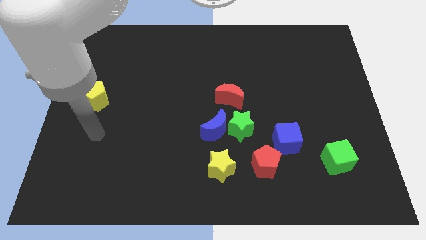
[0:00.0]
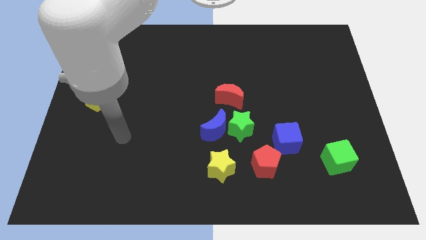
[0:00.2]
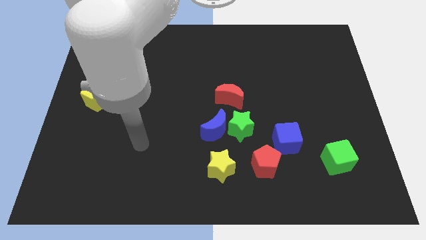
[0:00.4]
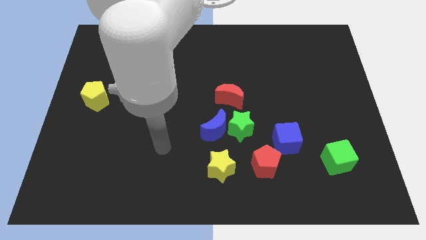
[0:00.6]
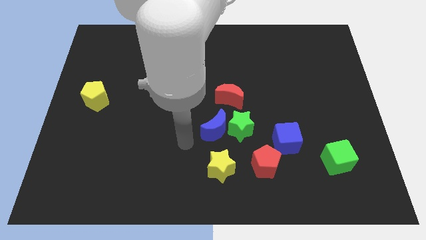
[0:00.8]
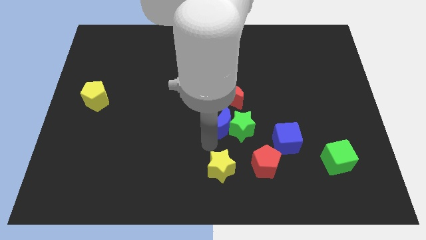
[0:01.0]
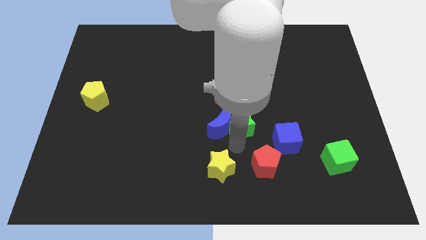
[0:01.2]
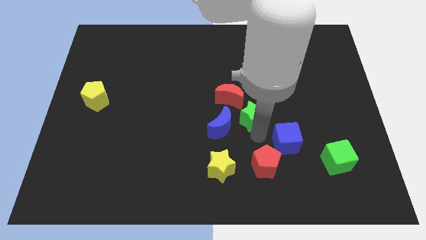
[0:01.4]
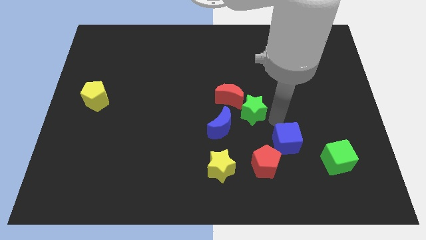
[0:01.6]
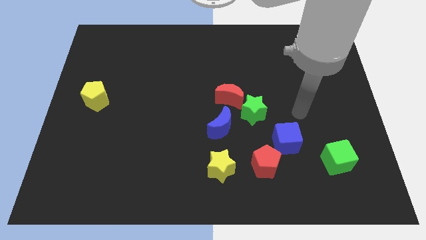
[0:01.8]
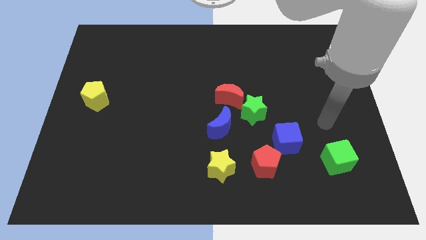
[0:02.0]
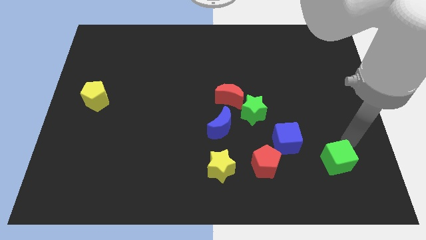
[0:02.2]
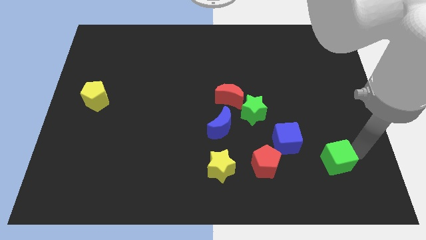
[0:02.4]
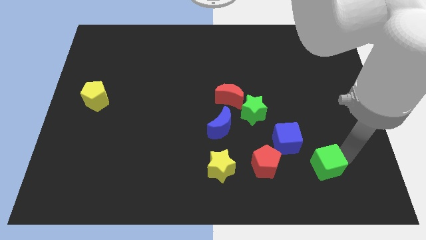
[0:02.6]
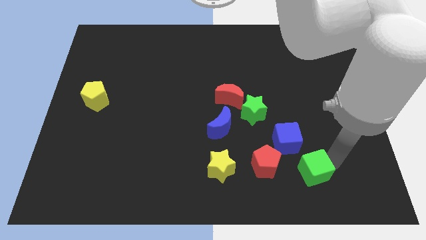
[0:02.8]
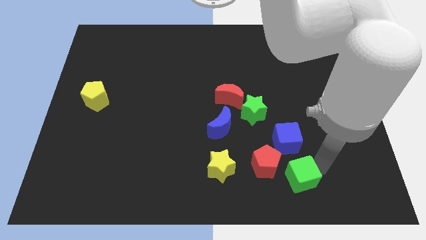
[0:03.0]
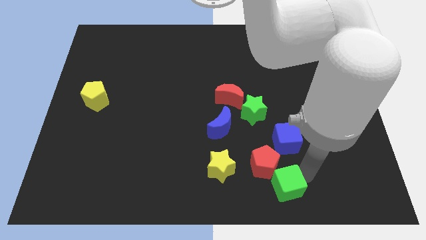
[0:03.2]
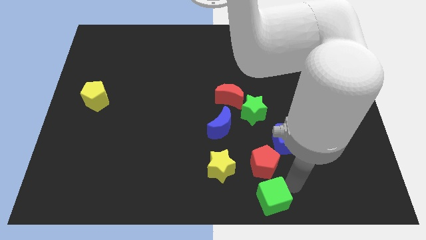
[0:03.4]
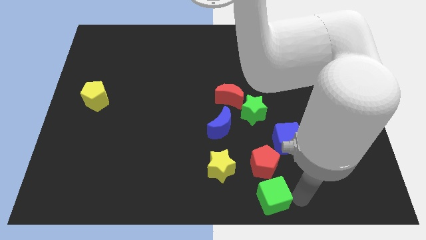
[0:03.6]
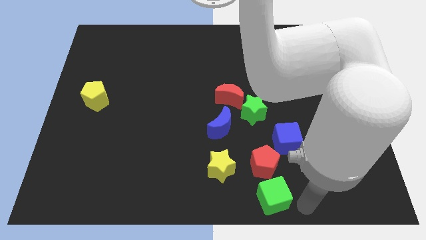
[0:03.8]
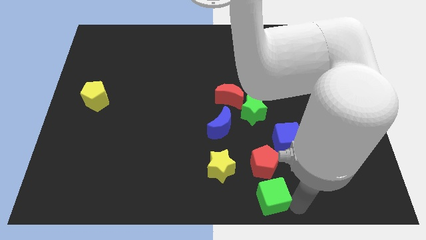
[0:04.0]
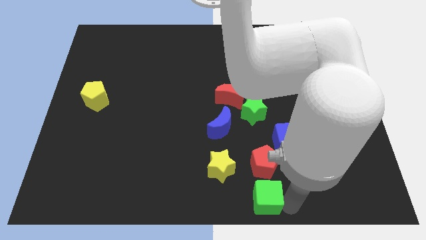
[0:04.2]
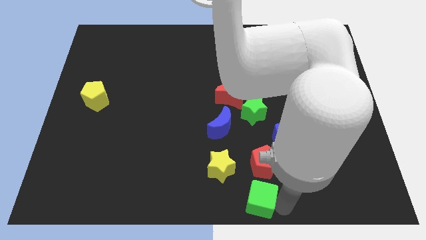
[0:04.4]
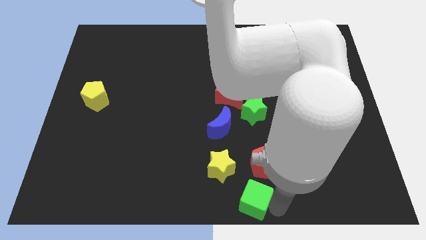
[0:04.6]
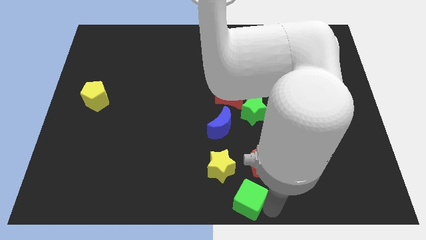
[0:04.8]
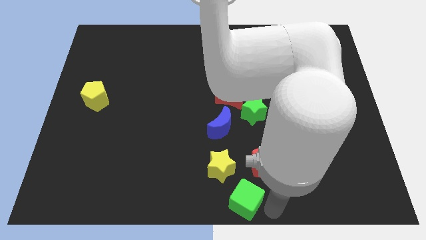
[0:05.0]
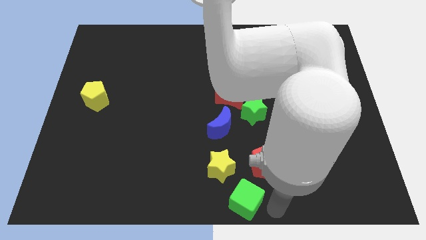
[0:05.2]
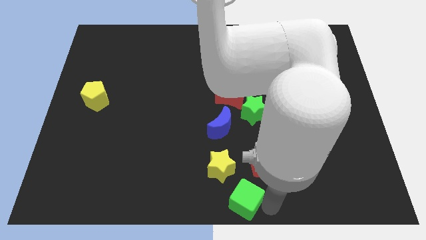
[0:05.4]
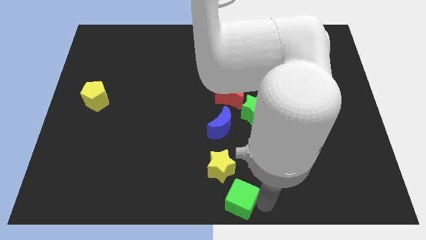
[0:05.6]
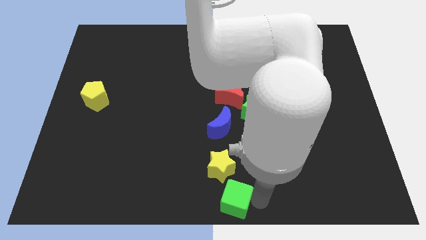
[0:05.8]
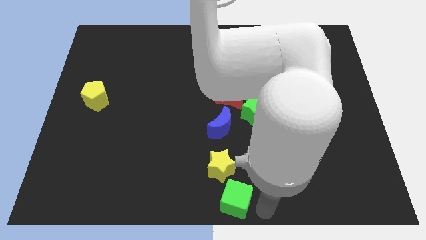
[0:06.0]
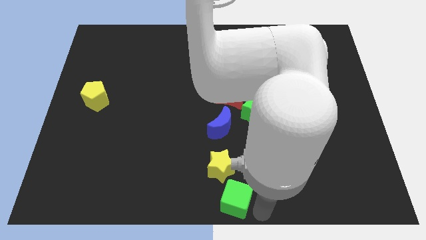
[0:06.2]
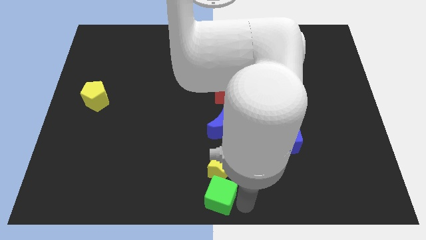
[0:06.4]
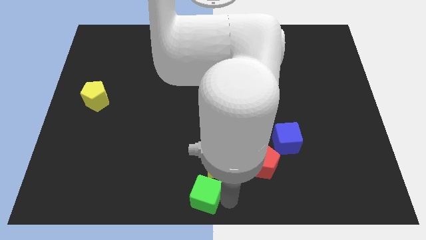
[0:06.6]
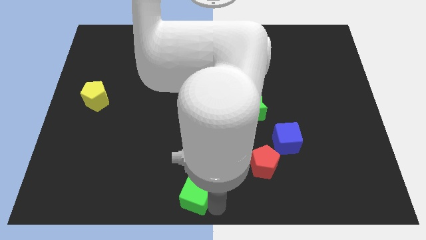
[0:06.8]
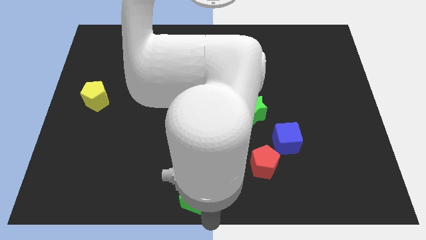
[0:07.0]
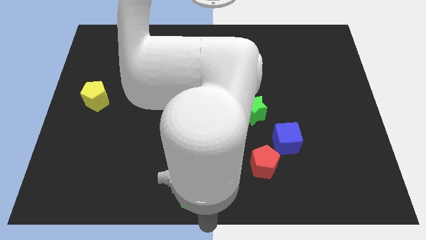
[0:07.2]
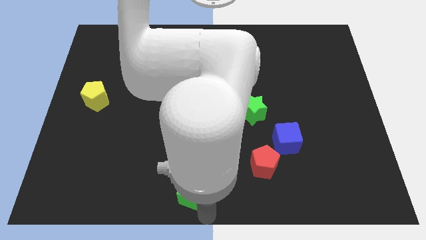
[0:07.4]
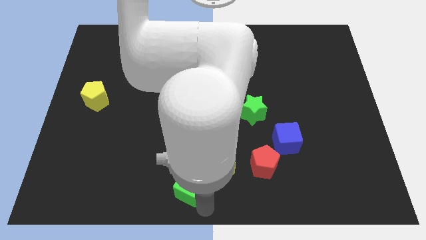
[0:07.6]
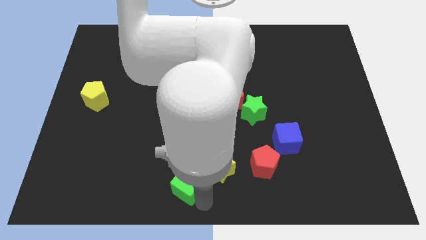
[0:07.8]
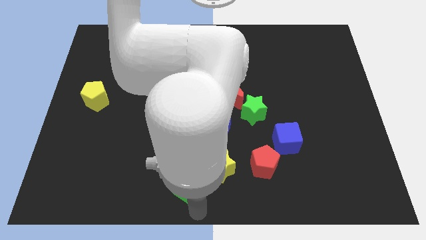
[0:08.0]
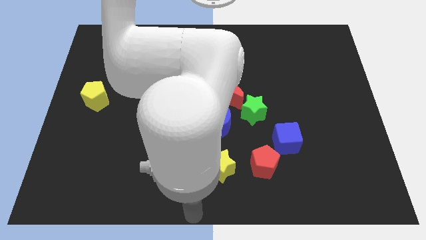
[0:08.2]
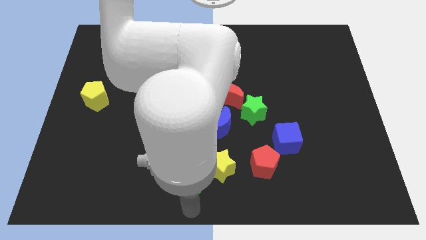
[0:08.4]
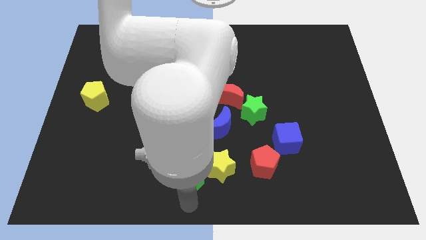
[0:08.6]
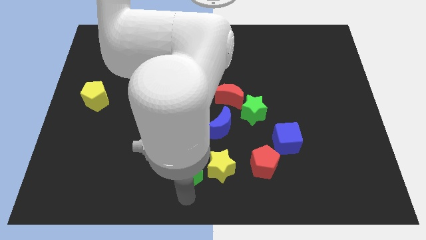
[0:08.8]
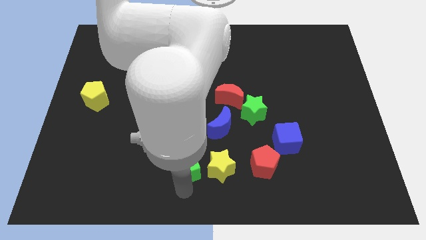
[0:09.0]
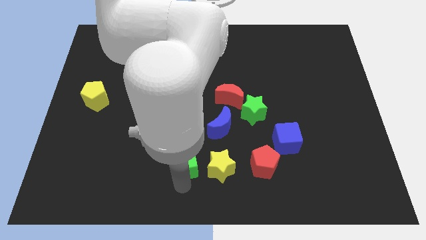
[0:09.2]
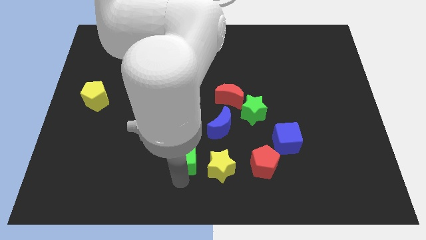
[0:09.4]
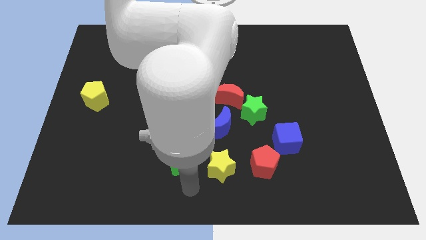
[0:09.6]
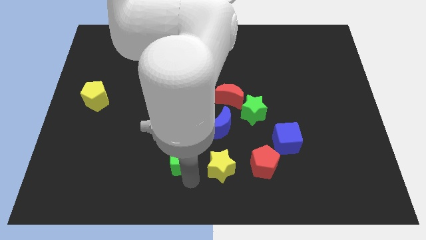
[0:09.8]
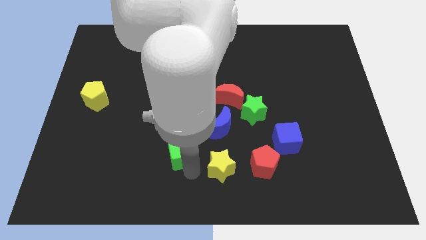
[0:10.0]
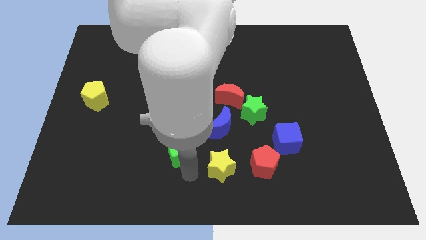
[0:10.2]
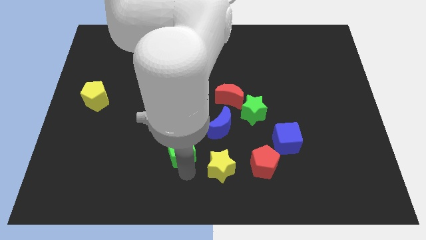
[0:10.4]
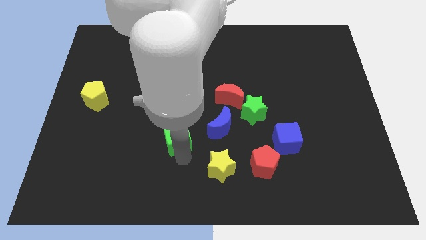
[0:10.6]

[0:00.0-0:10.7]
slide the green cube left of the blue moon

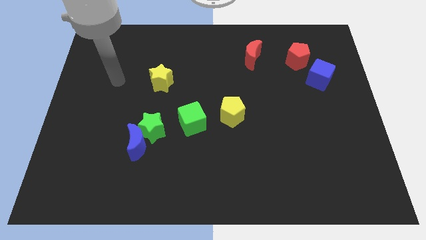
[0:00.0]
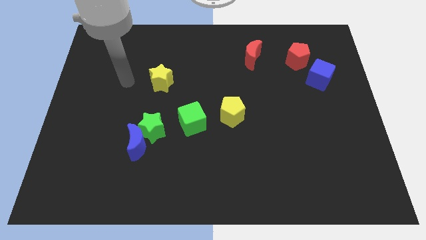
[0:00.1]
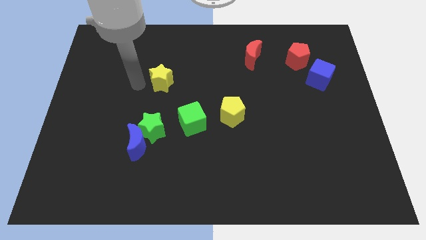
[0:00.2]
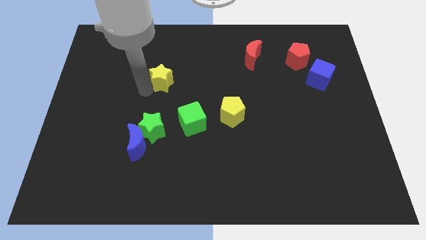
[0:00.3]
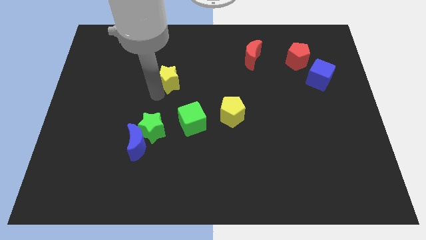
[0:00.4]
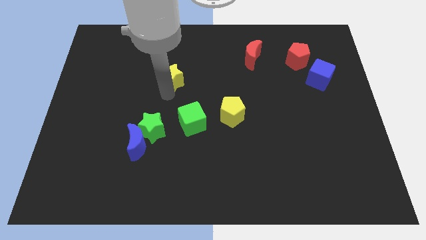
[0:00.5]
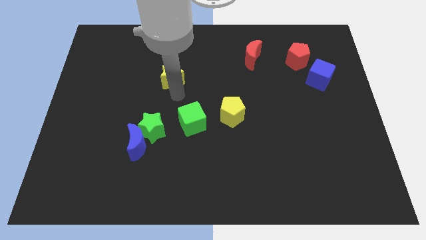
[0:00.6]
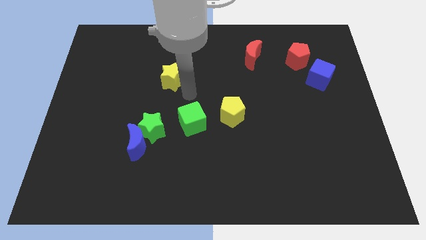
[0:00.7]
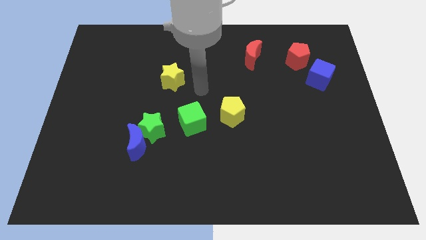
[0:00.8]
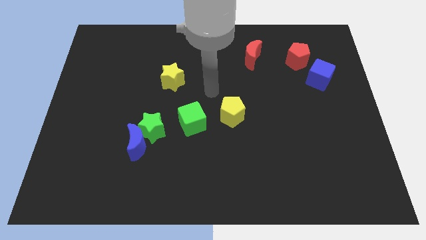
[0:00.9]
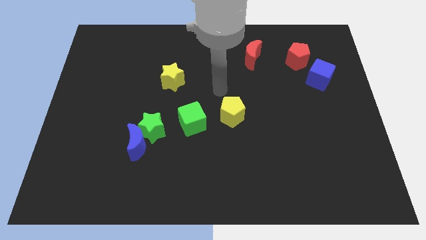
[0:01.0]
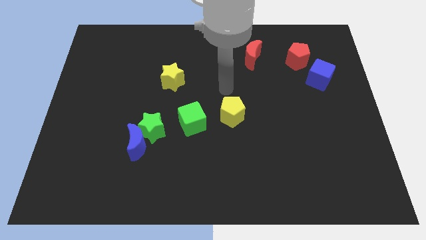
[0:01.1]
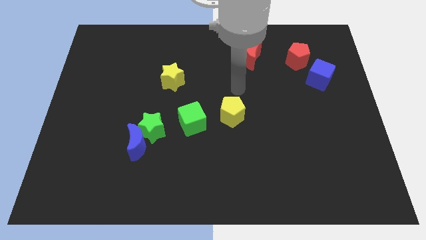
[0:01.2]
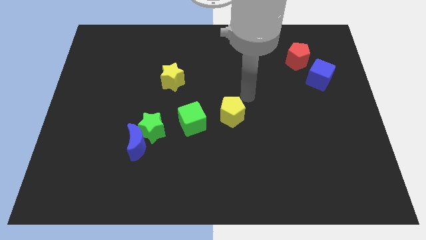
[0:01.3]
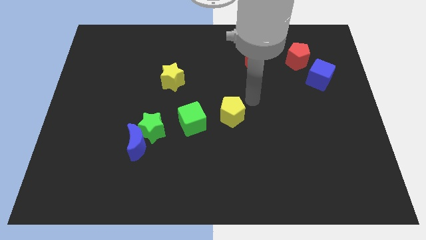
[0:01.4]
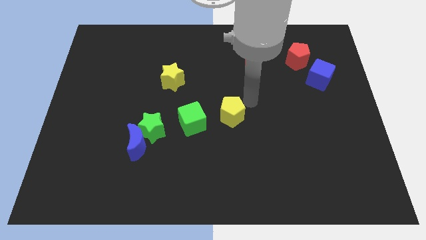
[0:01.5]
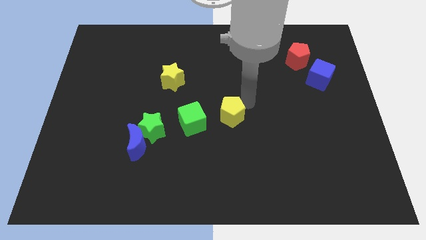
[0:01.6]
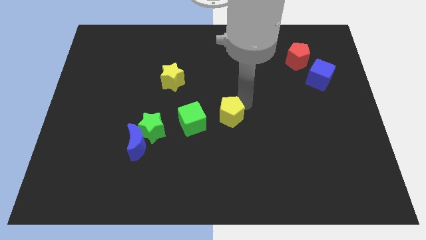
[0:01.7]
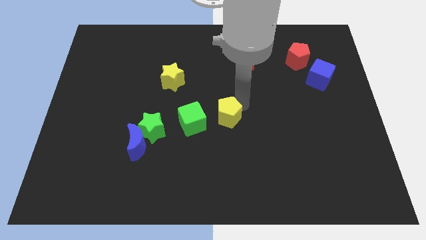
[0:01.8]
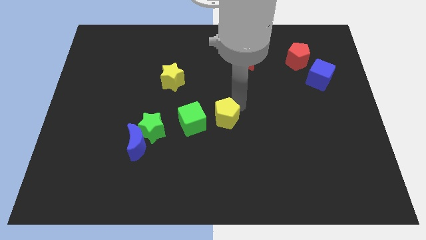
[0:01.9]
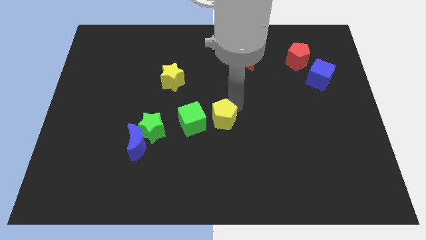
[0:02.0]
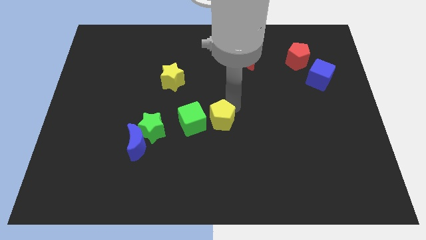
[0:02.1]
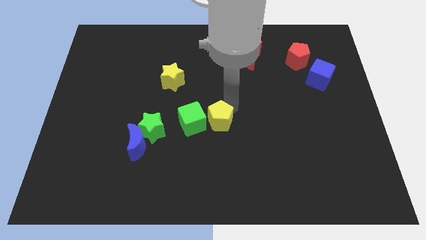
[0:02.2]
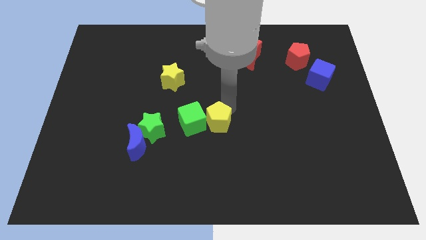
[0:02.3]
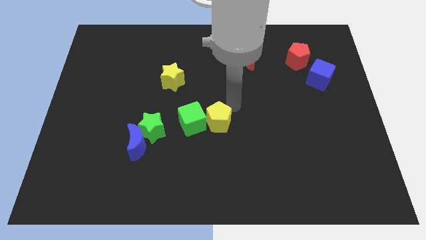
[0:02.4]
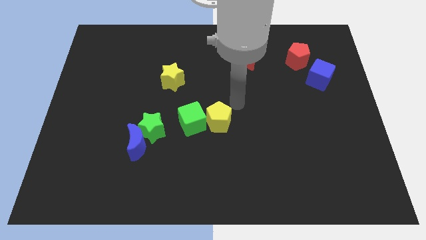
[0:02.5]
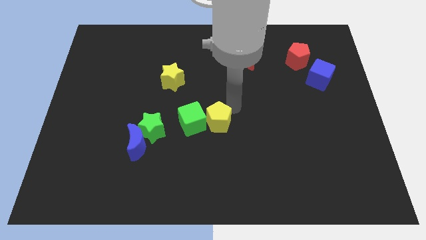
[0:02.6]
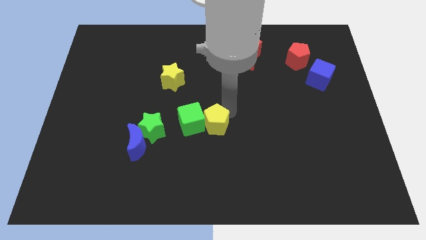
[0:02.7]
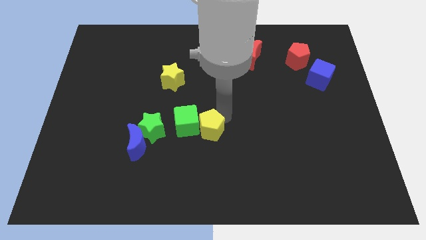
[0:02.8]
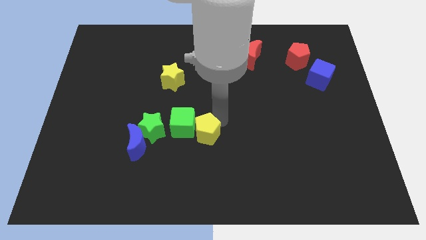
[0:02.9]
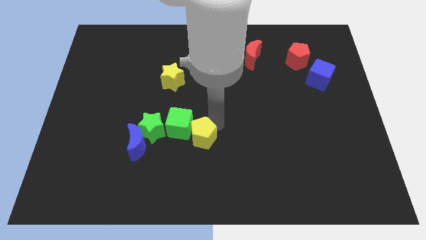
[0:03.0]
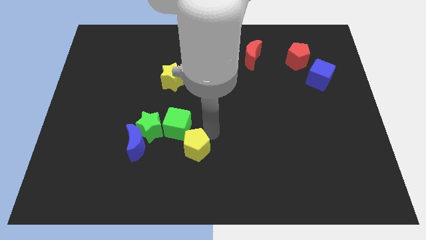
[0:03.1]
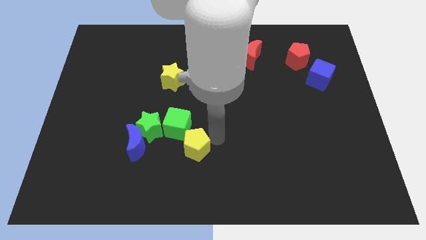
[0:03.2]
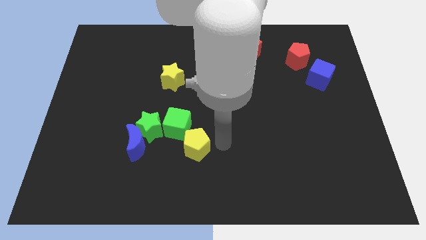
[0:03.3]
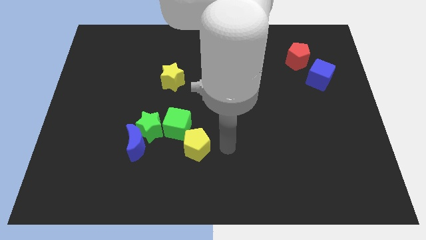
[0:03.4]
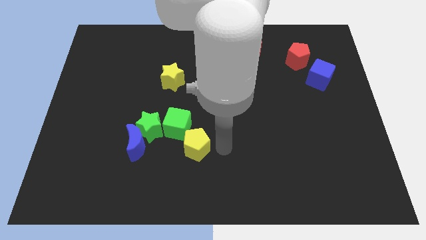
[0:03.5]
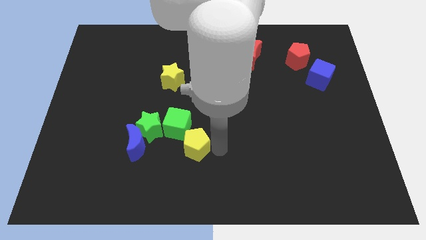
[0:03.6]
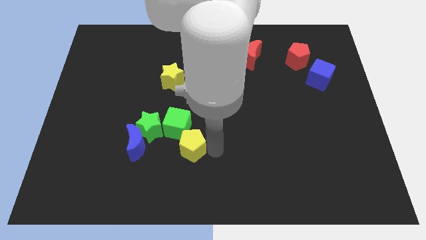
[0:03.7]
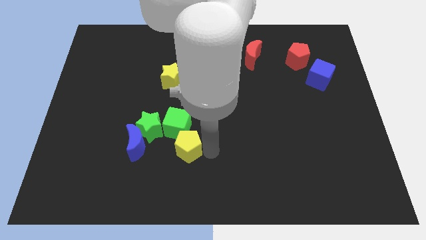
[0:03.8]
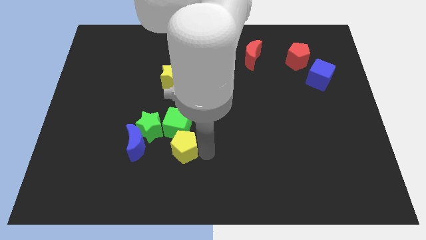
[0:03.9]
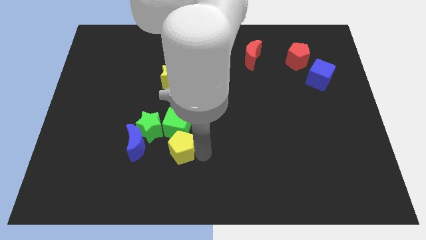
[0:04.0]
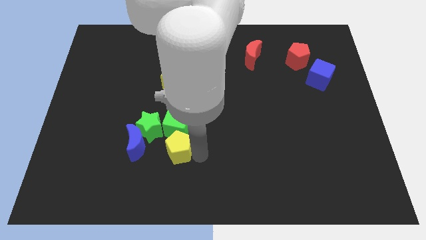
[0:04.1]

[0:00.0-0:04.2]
slide the yellow pentagon to the bottom left side of the green cube
